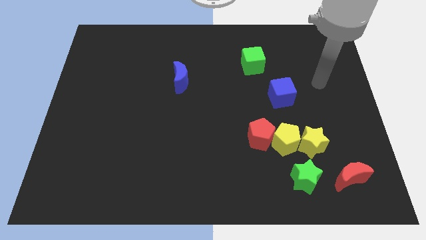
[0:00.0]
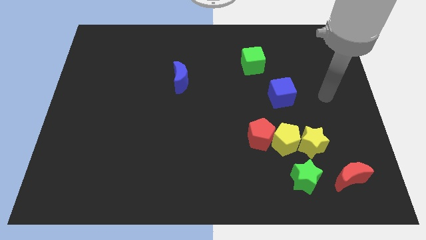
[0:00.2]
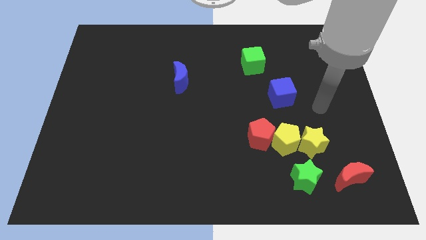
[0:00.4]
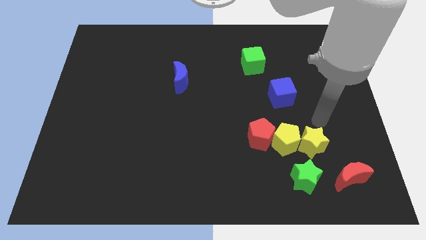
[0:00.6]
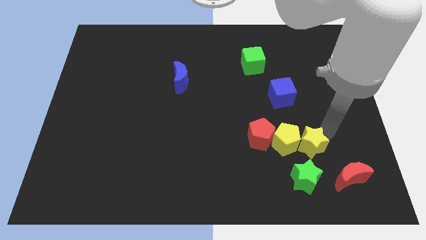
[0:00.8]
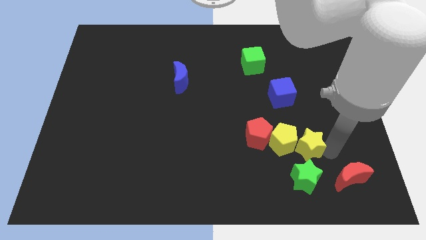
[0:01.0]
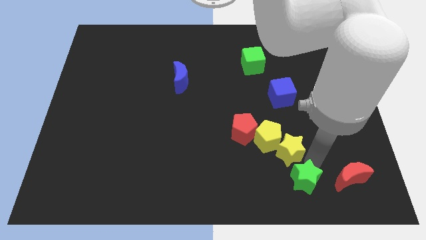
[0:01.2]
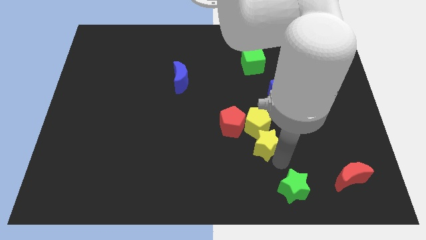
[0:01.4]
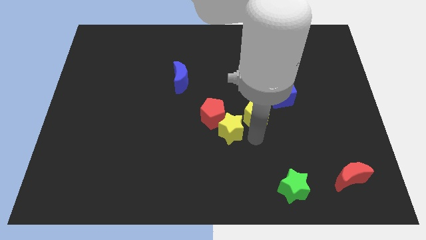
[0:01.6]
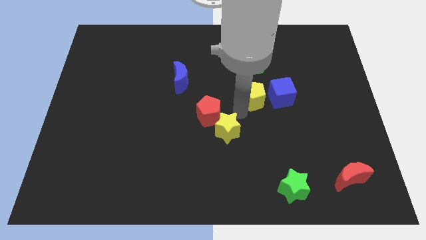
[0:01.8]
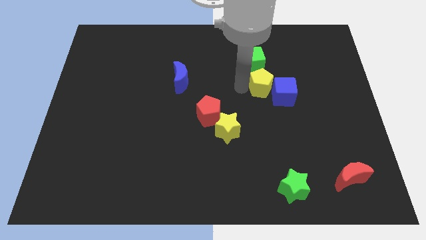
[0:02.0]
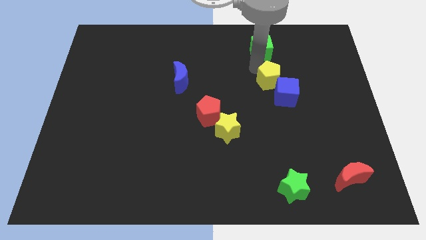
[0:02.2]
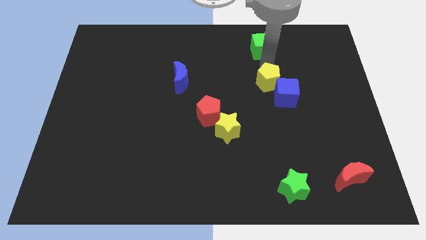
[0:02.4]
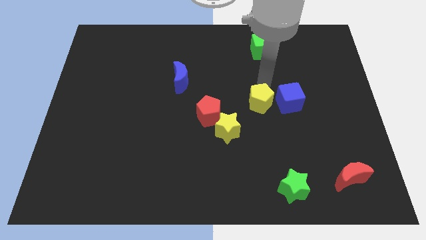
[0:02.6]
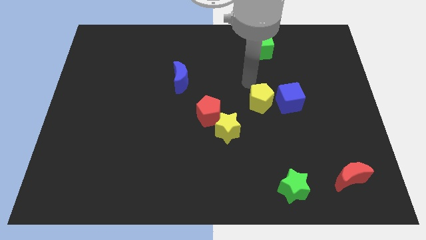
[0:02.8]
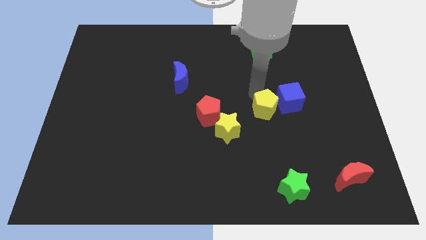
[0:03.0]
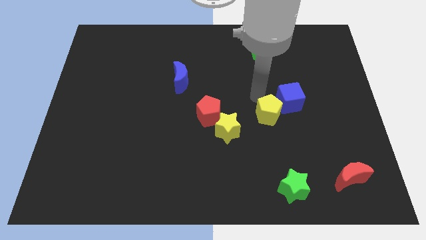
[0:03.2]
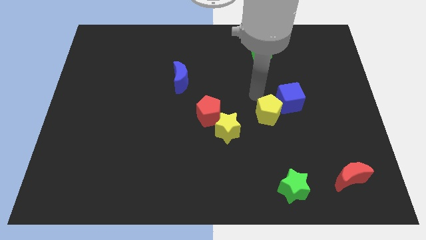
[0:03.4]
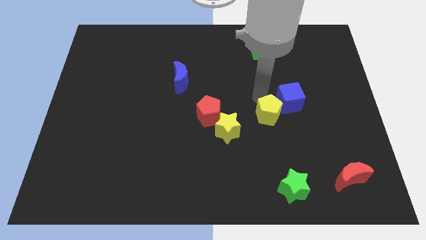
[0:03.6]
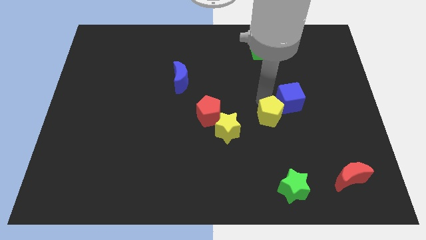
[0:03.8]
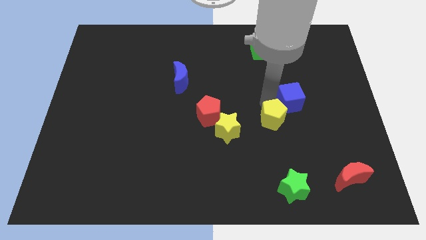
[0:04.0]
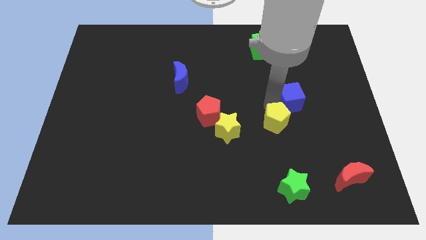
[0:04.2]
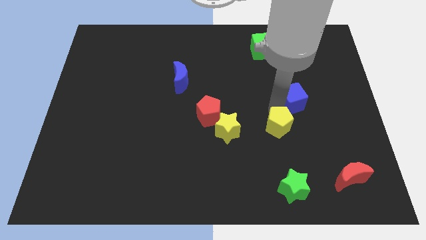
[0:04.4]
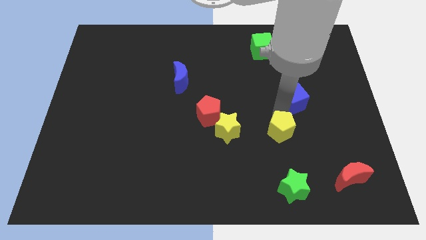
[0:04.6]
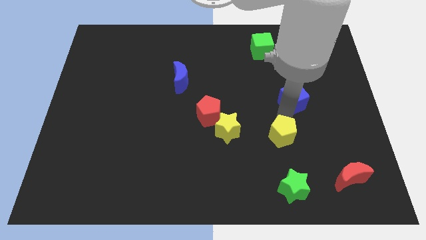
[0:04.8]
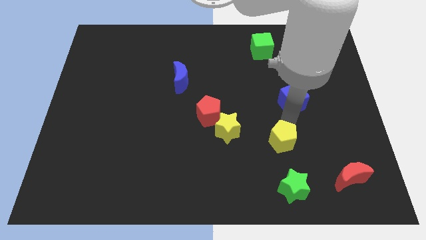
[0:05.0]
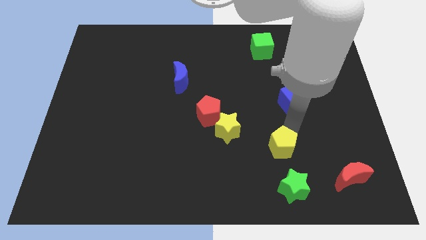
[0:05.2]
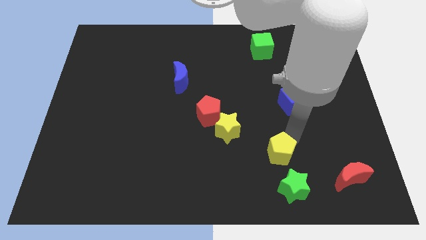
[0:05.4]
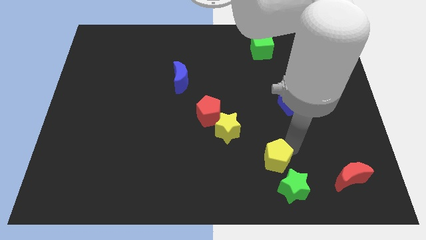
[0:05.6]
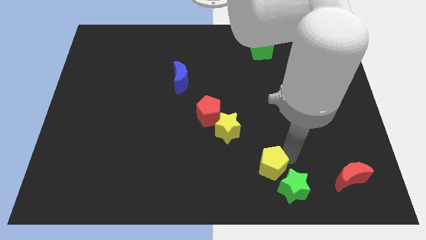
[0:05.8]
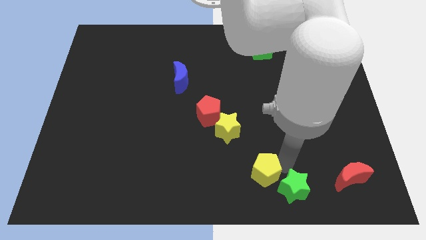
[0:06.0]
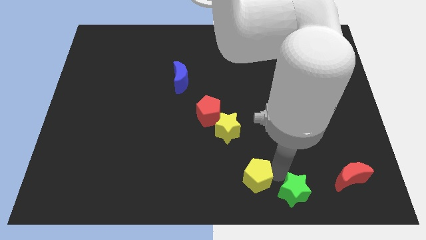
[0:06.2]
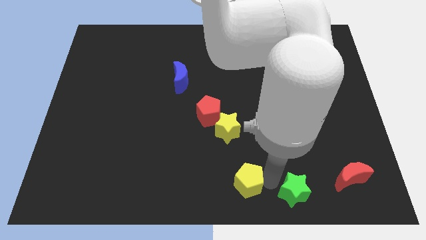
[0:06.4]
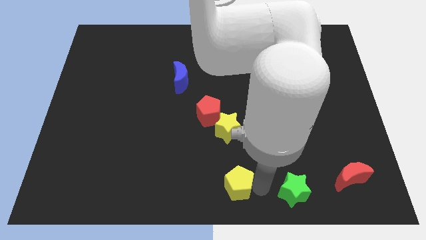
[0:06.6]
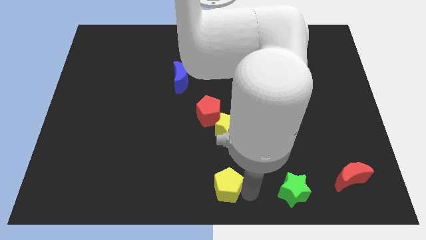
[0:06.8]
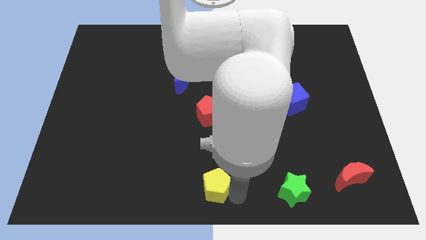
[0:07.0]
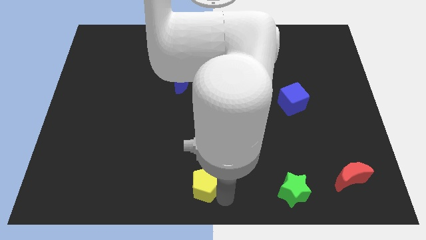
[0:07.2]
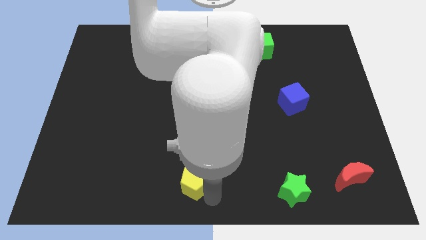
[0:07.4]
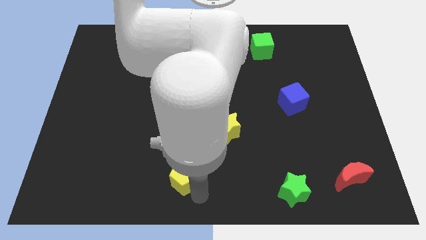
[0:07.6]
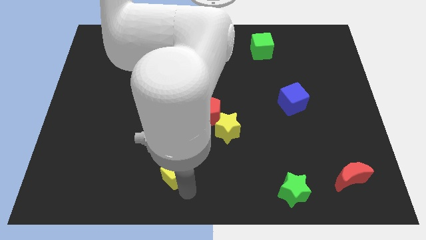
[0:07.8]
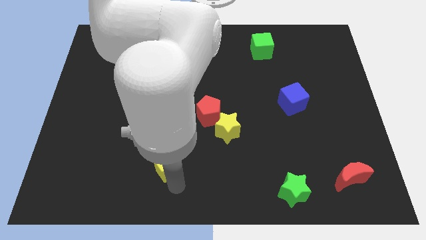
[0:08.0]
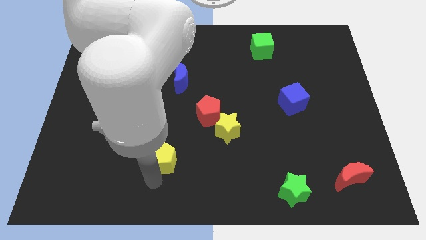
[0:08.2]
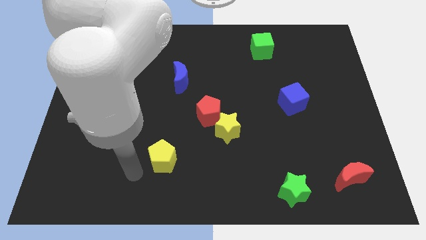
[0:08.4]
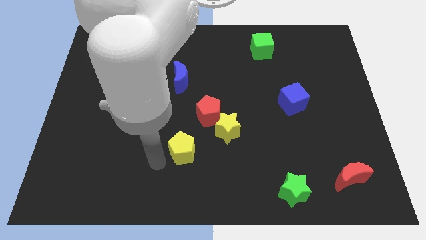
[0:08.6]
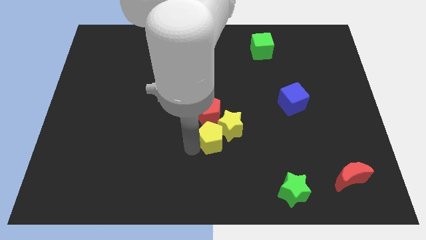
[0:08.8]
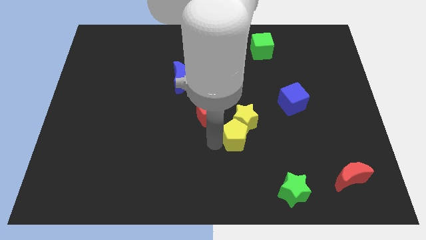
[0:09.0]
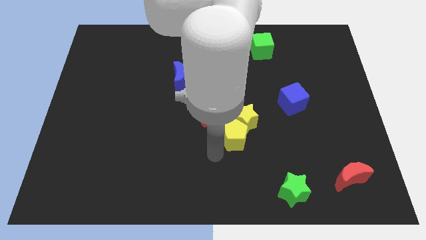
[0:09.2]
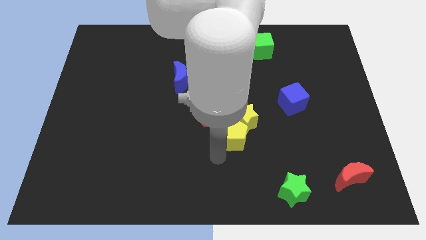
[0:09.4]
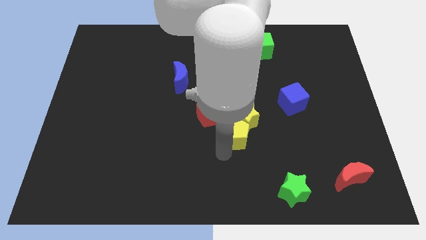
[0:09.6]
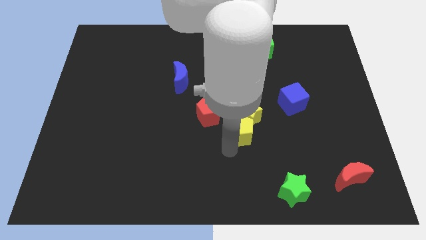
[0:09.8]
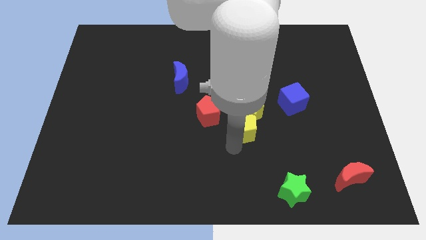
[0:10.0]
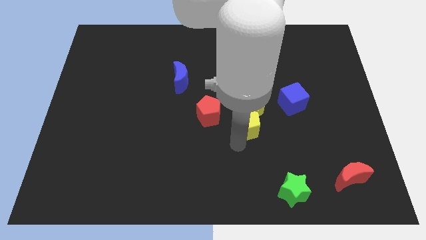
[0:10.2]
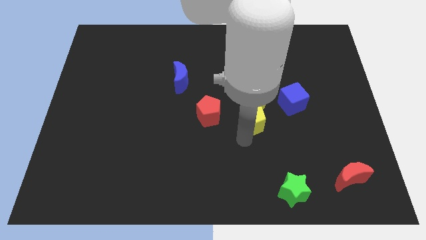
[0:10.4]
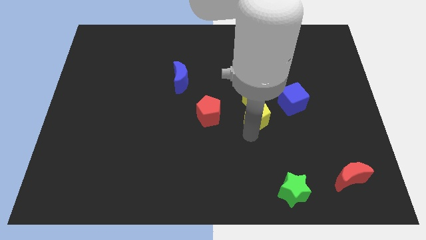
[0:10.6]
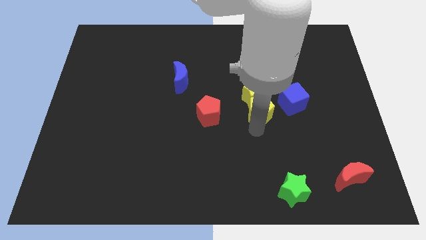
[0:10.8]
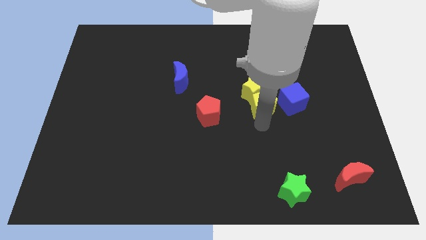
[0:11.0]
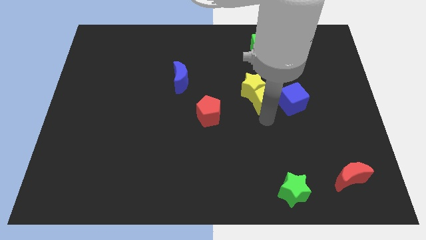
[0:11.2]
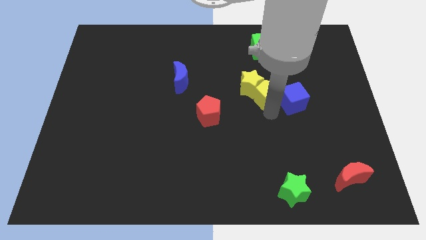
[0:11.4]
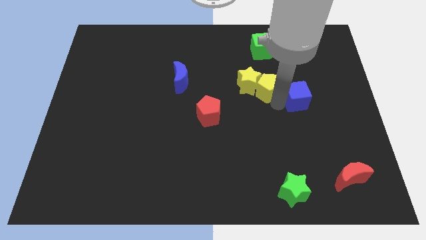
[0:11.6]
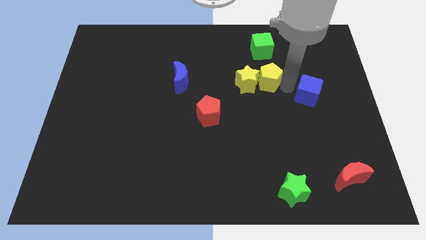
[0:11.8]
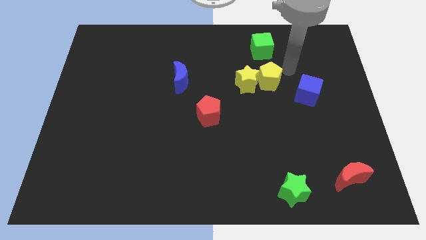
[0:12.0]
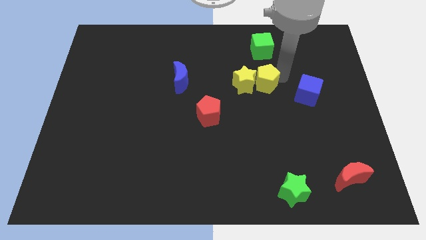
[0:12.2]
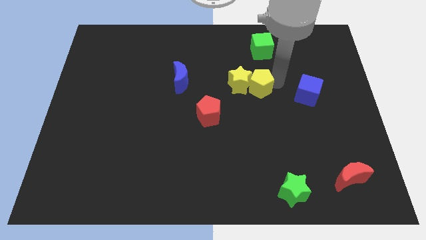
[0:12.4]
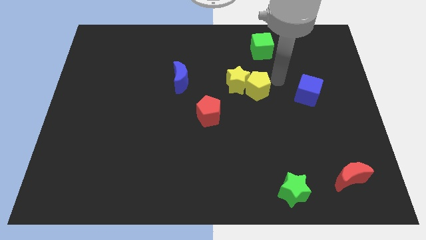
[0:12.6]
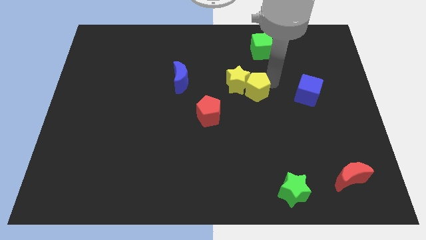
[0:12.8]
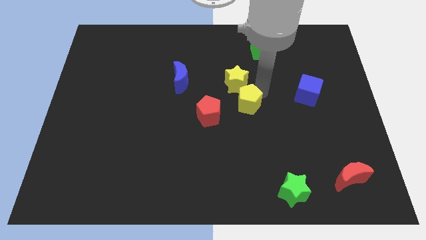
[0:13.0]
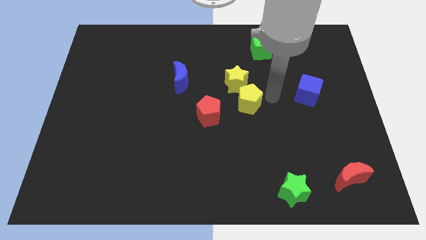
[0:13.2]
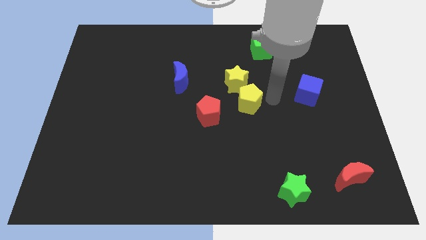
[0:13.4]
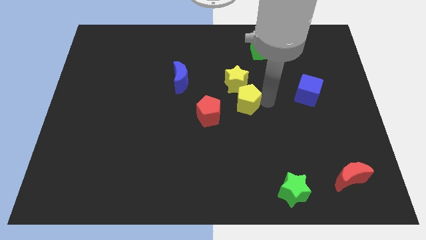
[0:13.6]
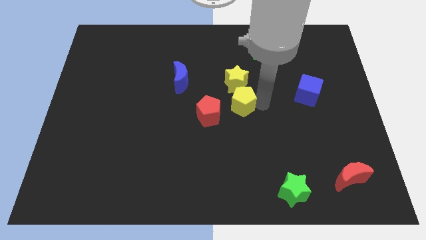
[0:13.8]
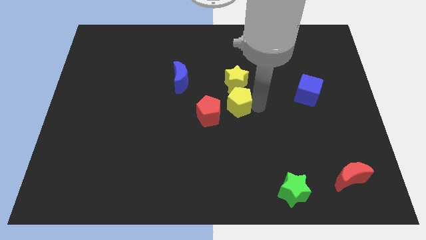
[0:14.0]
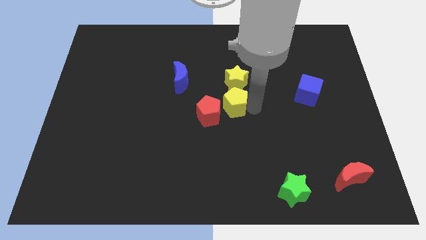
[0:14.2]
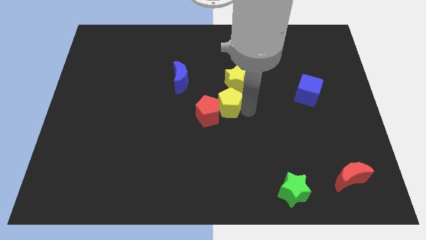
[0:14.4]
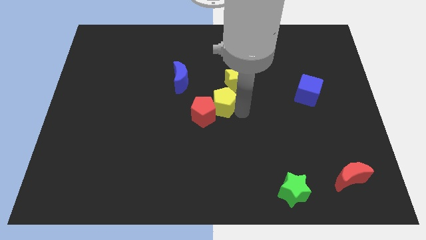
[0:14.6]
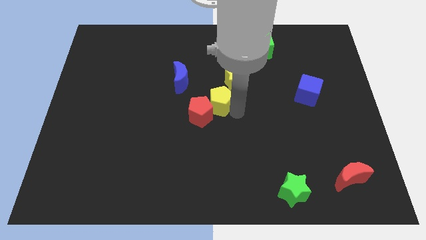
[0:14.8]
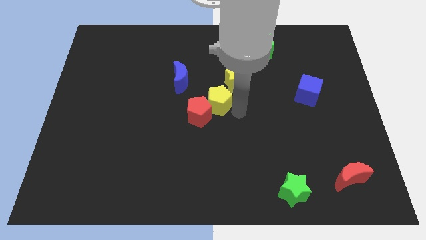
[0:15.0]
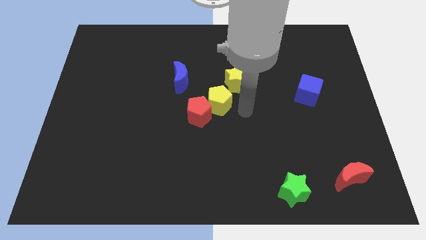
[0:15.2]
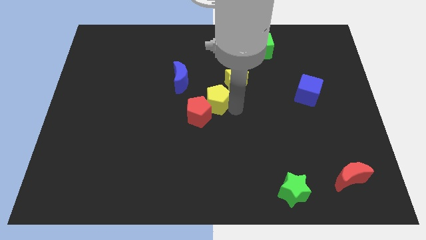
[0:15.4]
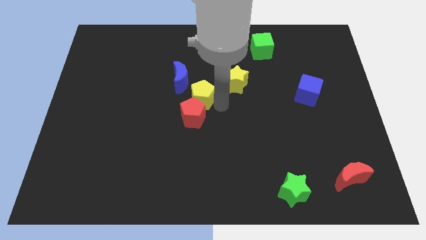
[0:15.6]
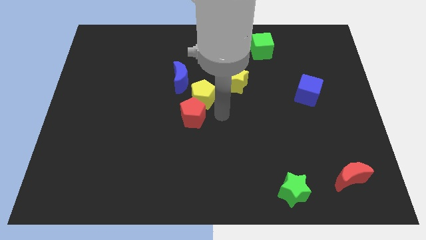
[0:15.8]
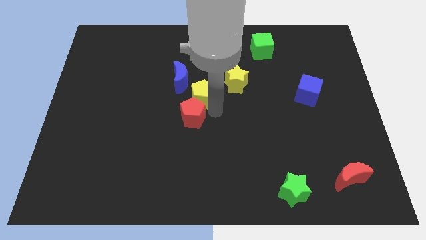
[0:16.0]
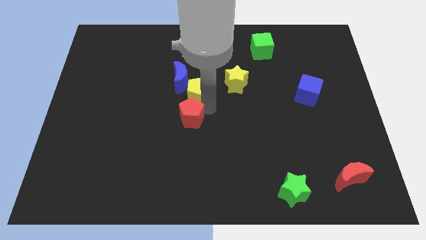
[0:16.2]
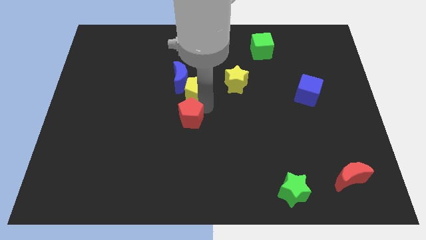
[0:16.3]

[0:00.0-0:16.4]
push the yellow pentagon next to the blue moon
